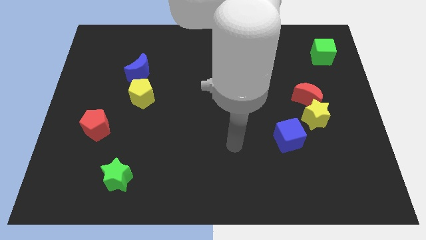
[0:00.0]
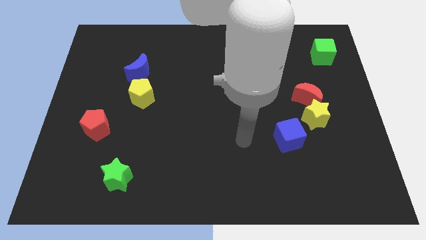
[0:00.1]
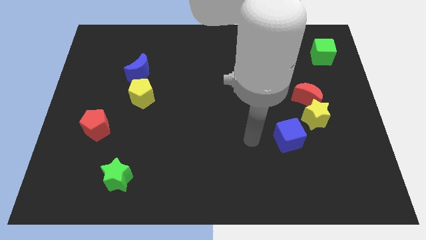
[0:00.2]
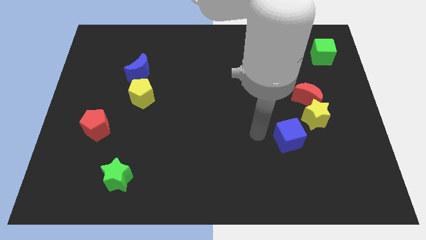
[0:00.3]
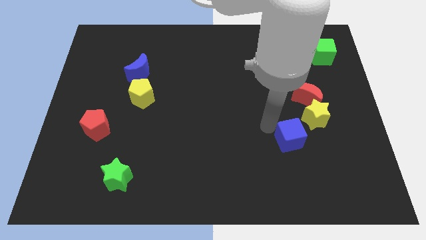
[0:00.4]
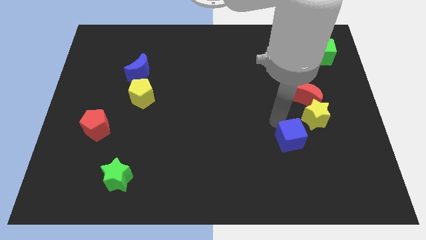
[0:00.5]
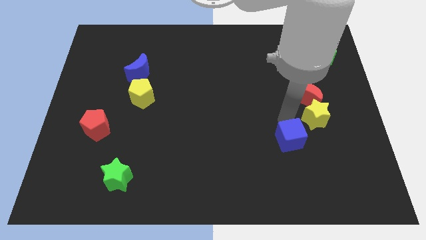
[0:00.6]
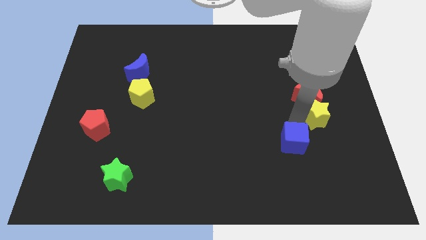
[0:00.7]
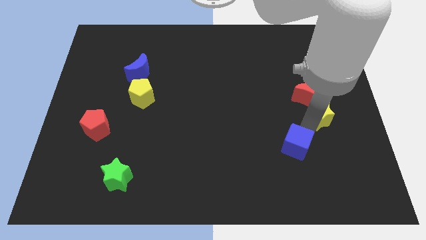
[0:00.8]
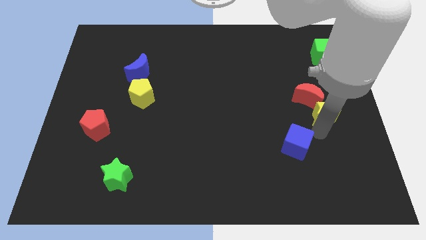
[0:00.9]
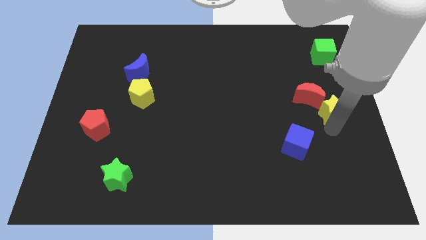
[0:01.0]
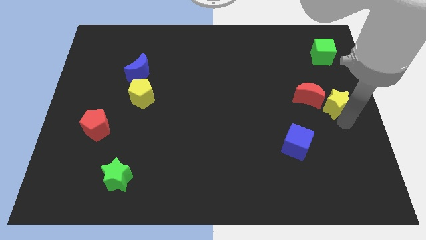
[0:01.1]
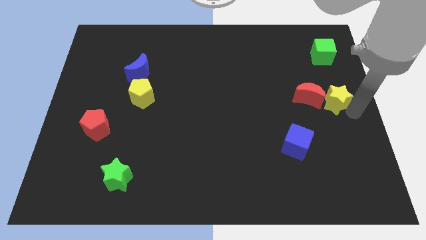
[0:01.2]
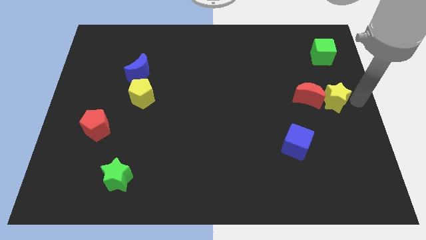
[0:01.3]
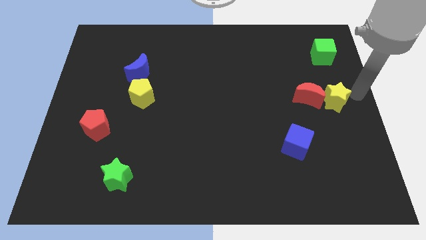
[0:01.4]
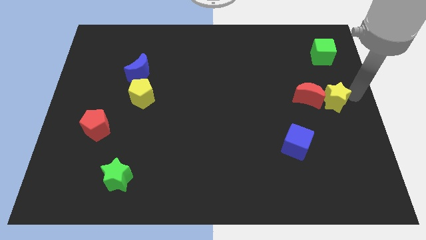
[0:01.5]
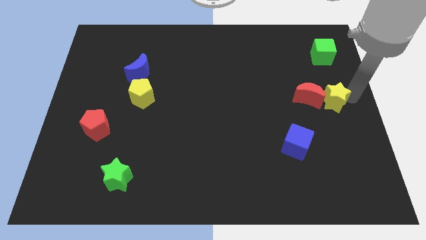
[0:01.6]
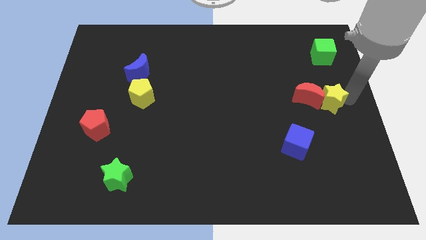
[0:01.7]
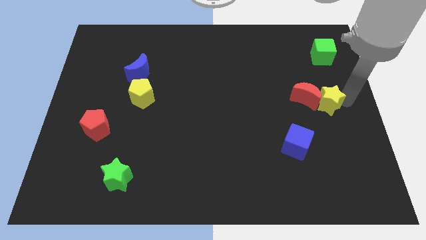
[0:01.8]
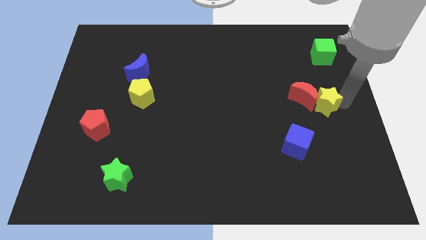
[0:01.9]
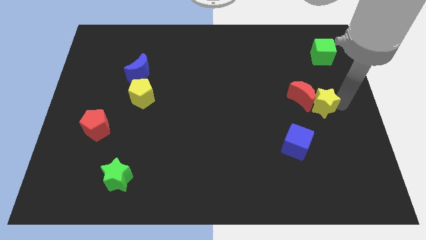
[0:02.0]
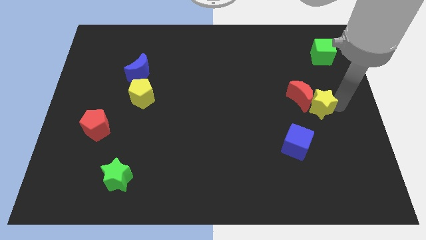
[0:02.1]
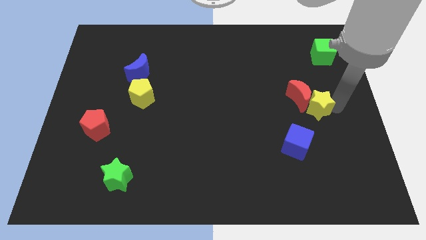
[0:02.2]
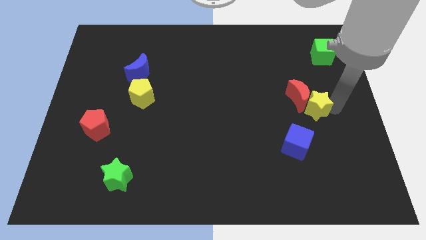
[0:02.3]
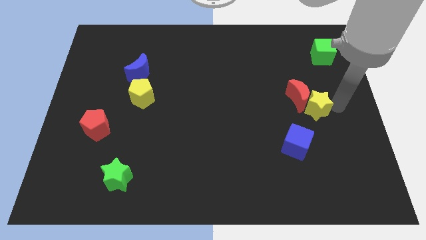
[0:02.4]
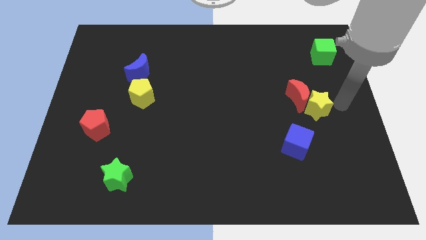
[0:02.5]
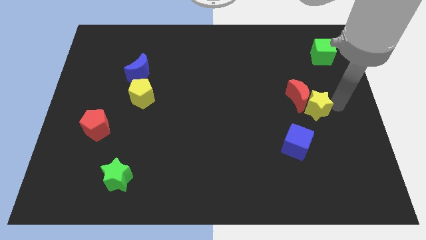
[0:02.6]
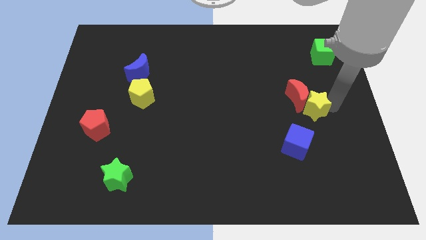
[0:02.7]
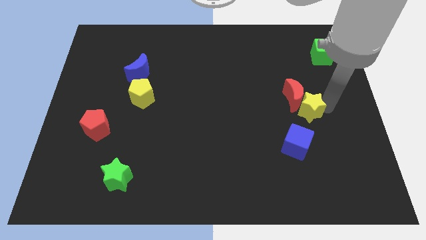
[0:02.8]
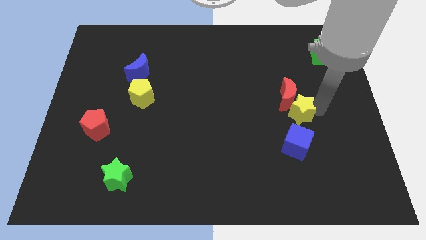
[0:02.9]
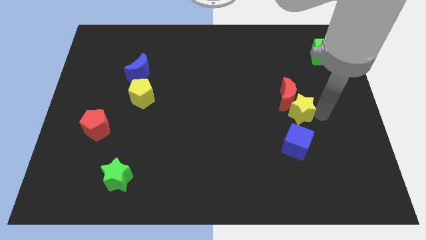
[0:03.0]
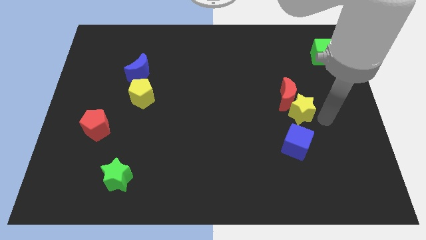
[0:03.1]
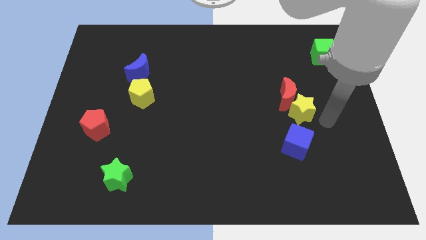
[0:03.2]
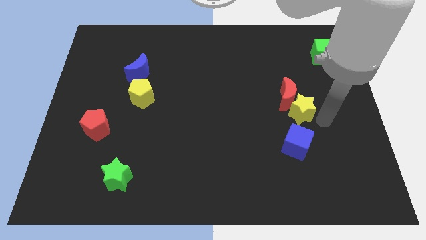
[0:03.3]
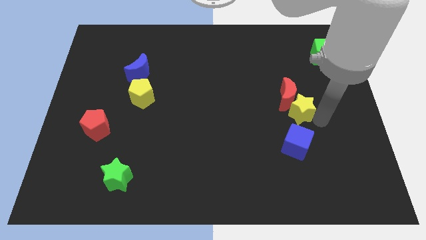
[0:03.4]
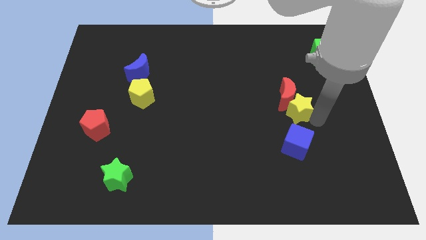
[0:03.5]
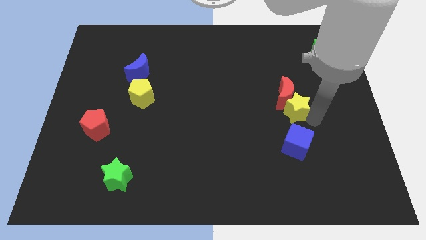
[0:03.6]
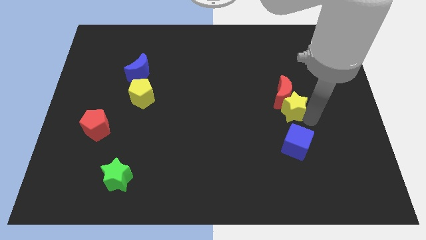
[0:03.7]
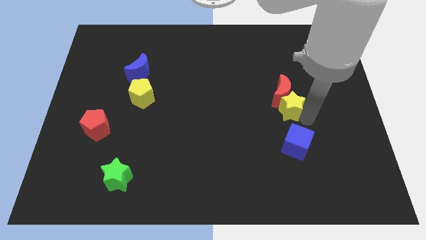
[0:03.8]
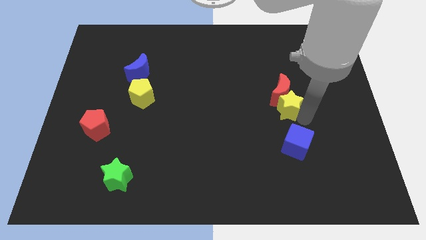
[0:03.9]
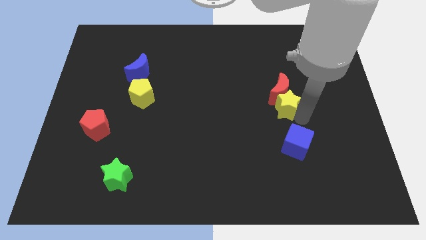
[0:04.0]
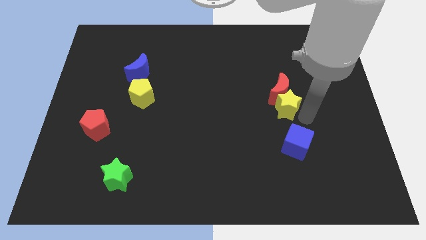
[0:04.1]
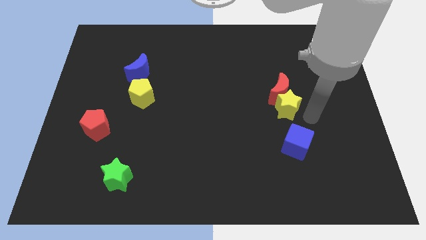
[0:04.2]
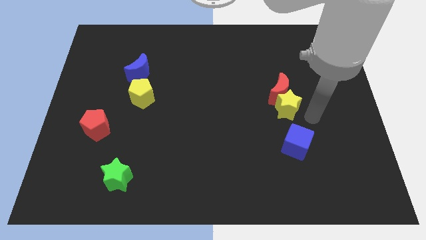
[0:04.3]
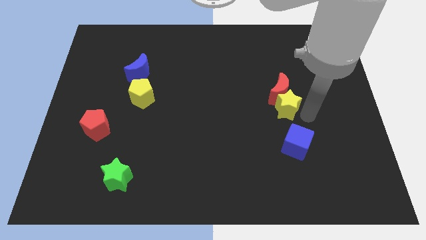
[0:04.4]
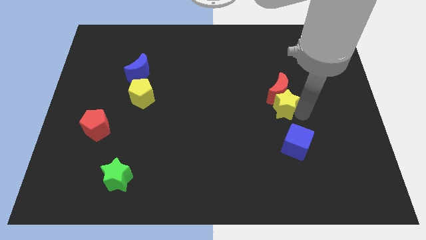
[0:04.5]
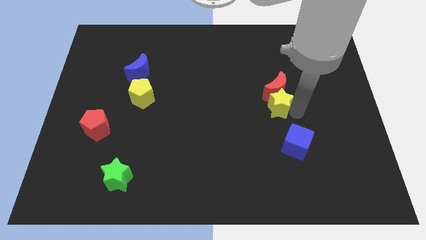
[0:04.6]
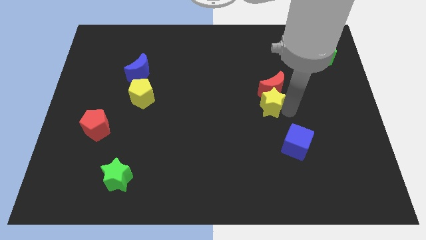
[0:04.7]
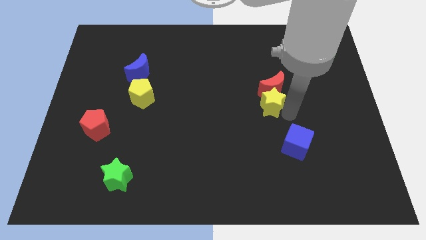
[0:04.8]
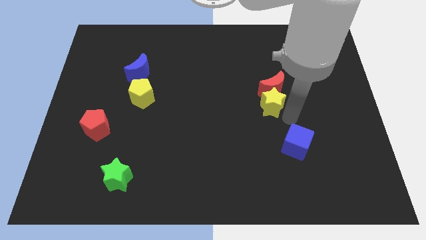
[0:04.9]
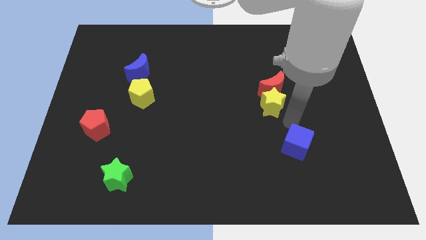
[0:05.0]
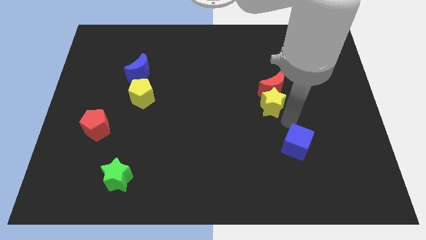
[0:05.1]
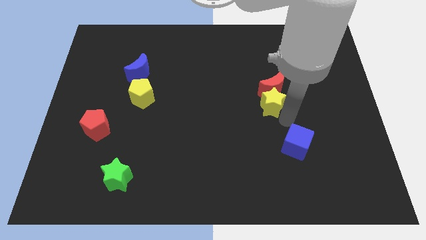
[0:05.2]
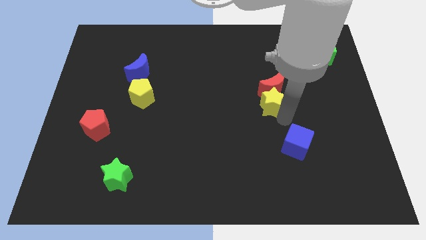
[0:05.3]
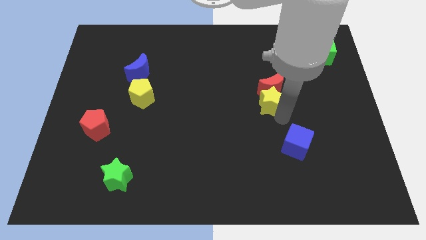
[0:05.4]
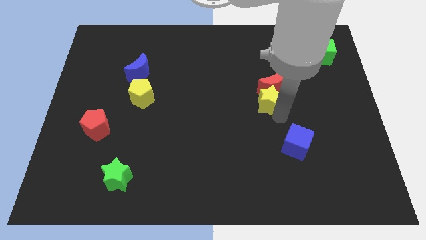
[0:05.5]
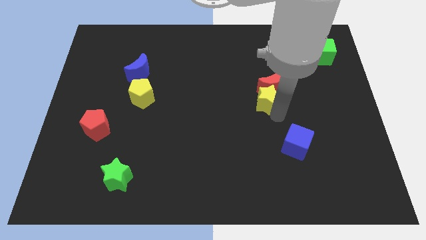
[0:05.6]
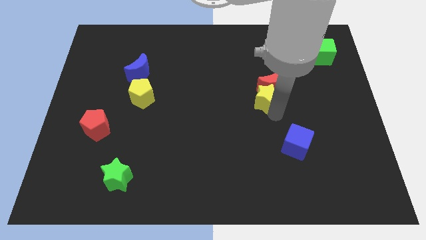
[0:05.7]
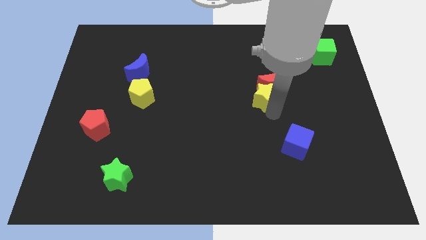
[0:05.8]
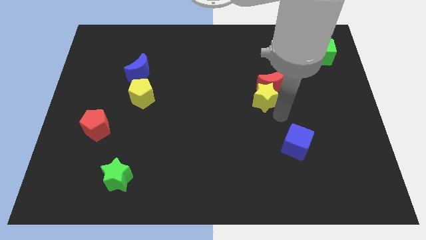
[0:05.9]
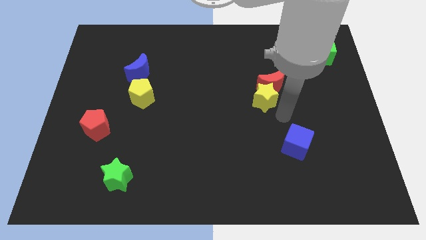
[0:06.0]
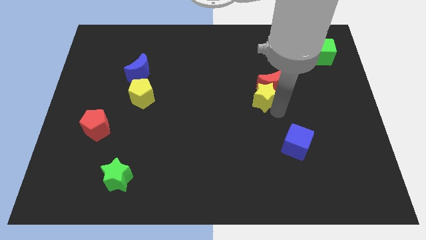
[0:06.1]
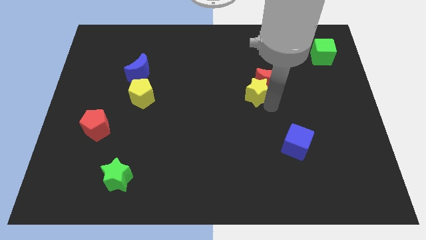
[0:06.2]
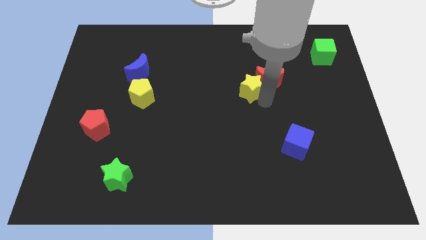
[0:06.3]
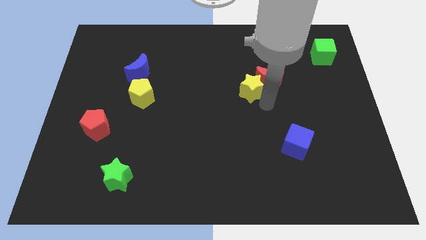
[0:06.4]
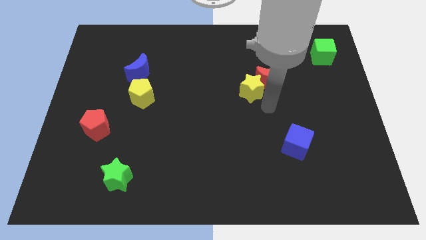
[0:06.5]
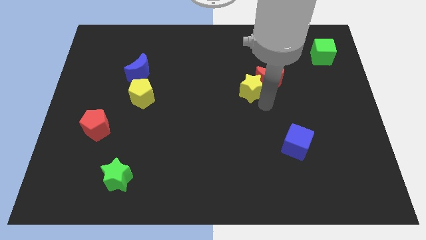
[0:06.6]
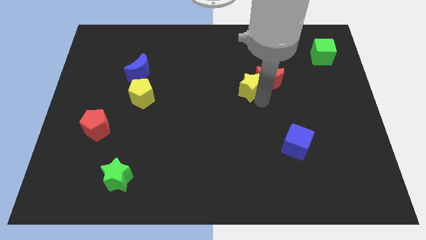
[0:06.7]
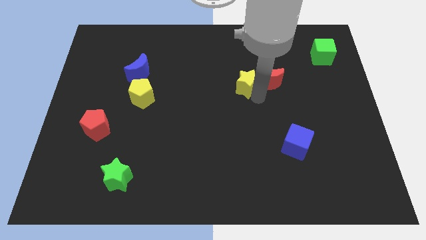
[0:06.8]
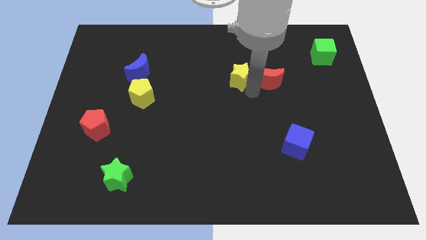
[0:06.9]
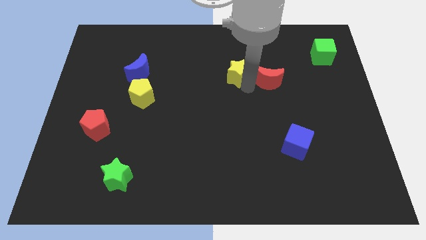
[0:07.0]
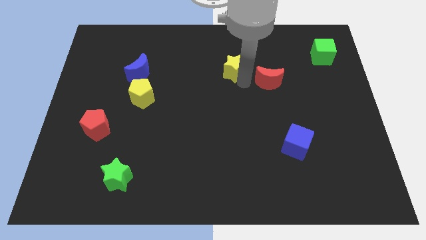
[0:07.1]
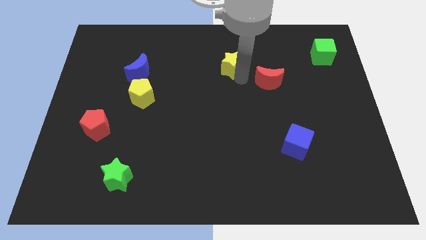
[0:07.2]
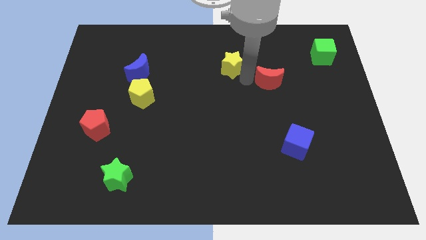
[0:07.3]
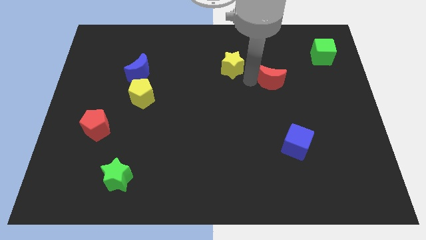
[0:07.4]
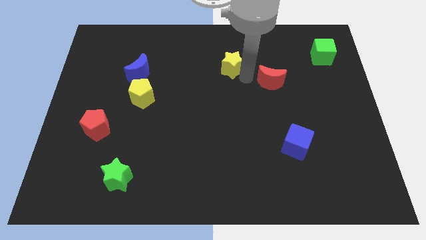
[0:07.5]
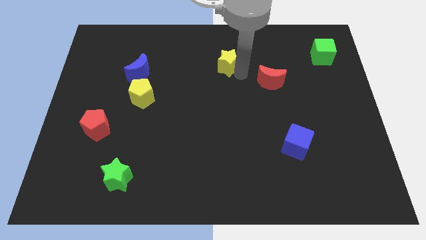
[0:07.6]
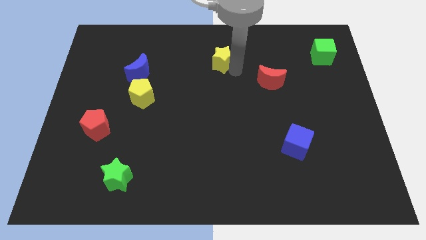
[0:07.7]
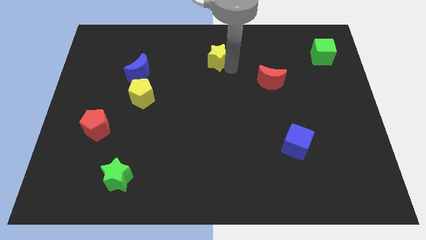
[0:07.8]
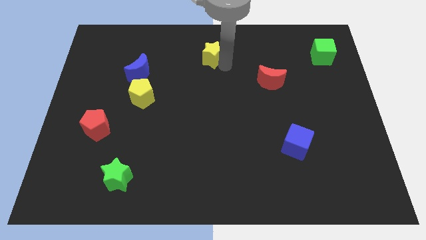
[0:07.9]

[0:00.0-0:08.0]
put the yellow star to the top side
